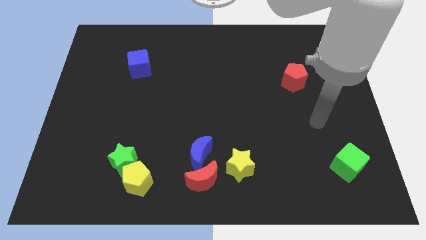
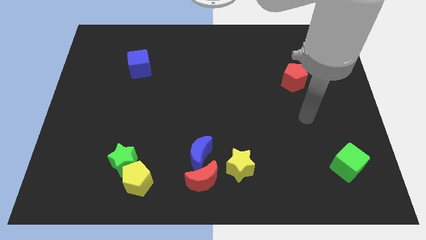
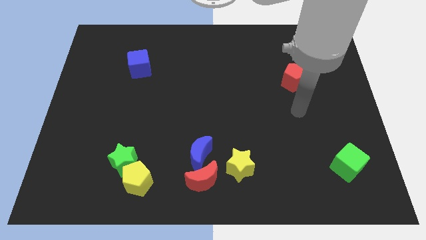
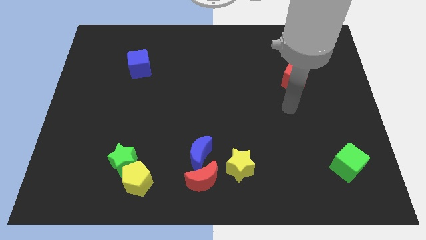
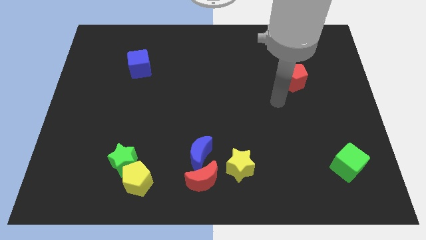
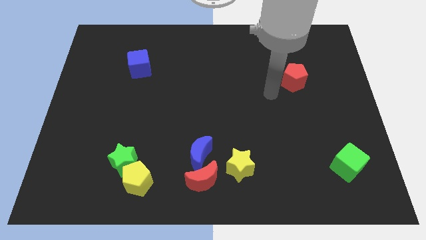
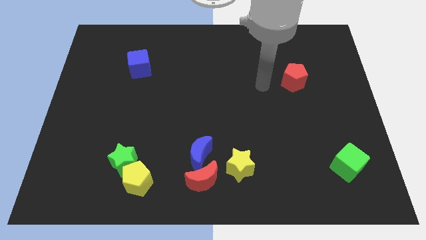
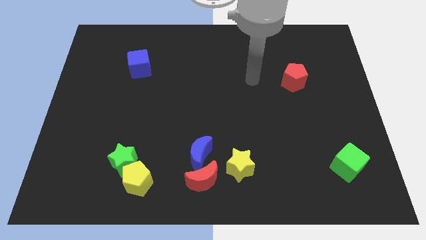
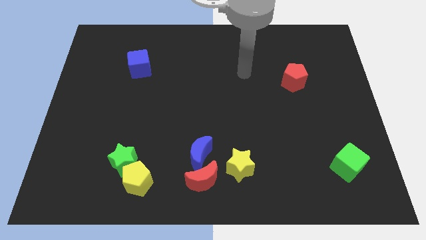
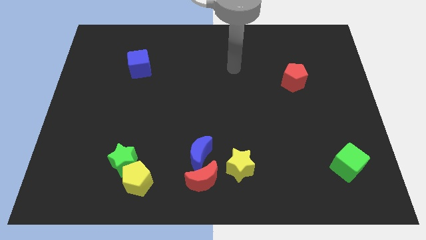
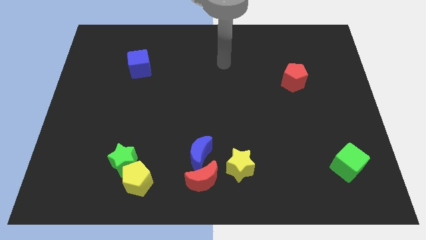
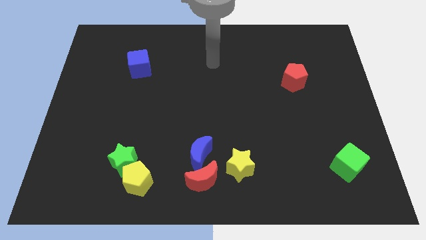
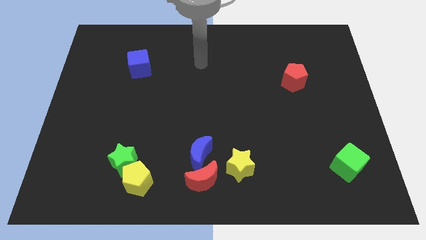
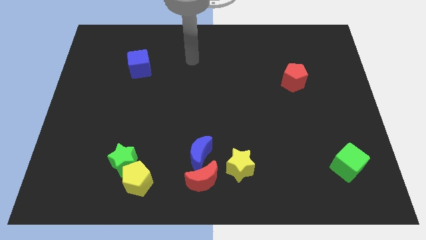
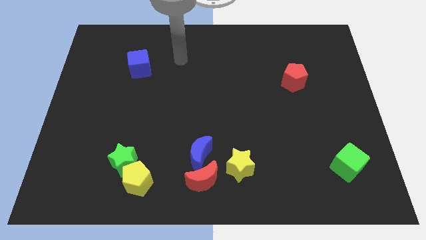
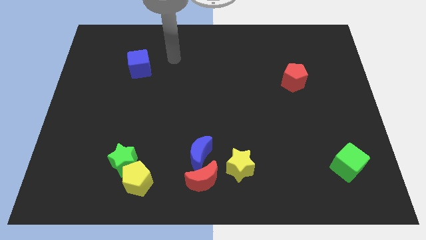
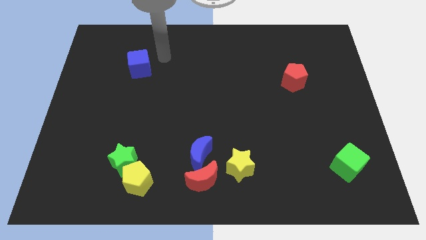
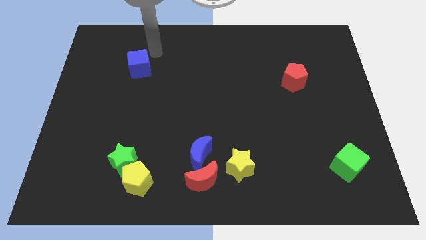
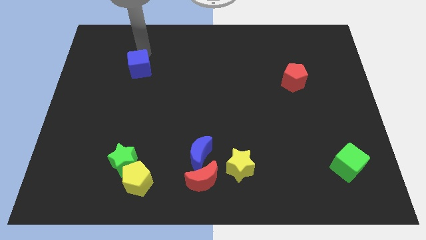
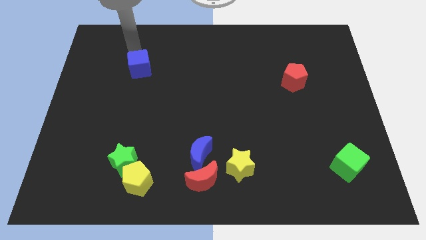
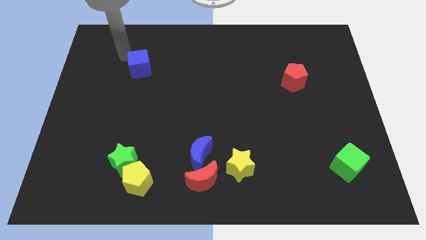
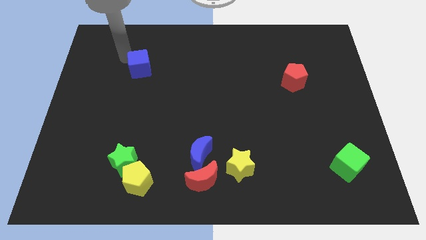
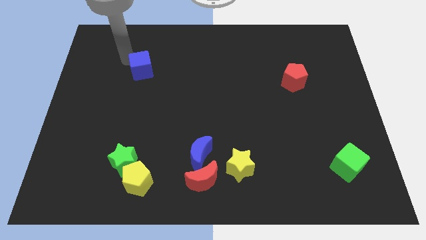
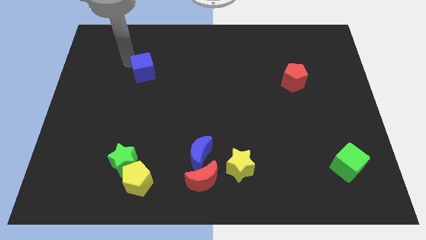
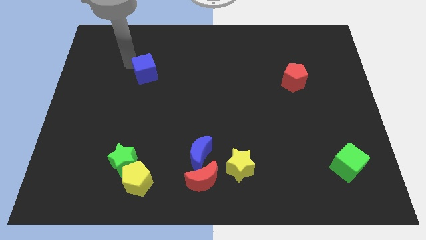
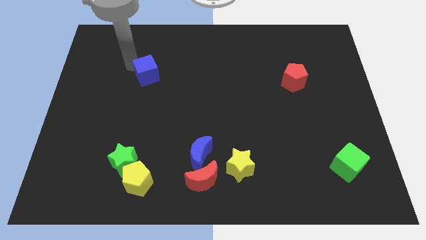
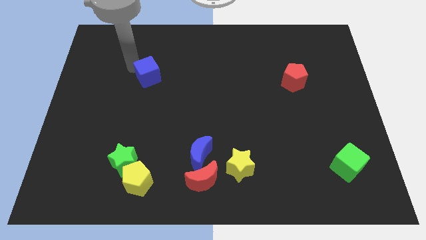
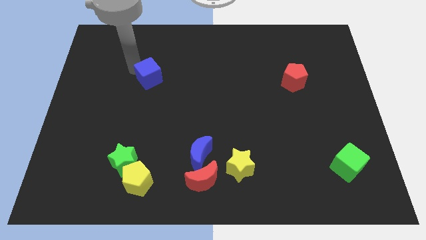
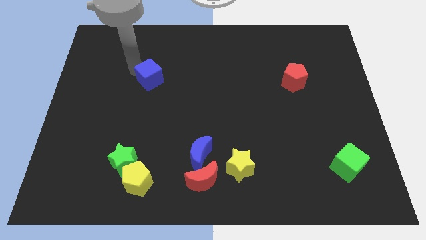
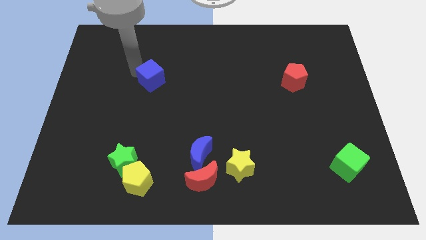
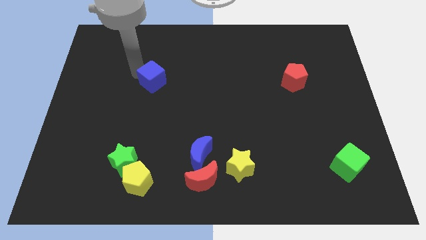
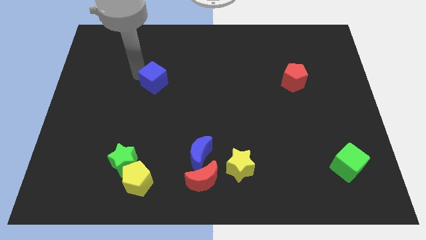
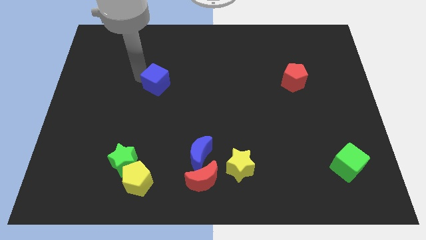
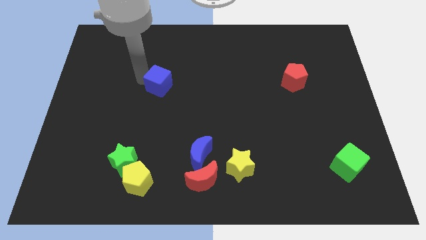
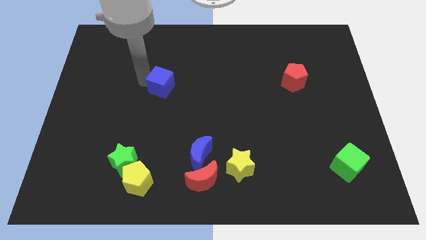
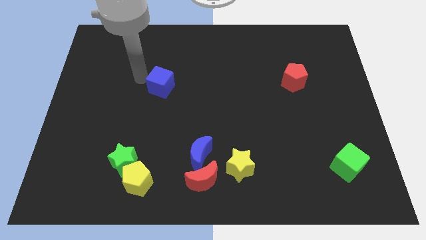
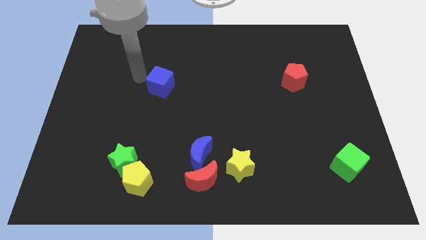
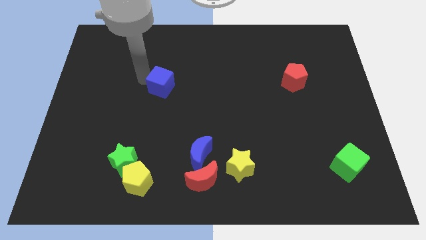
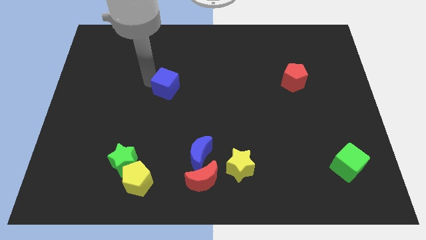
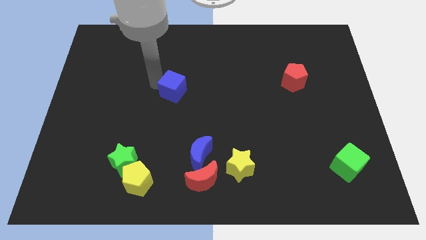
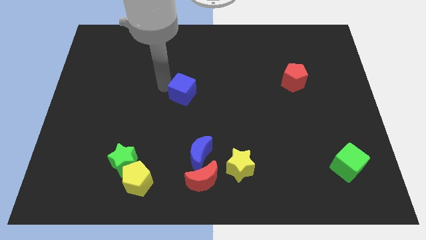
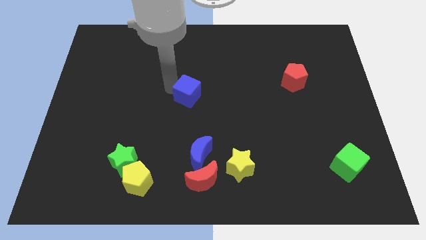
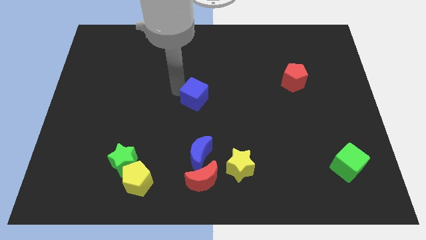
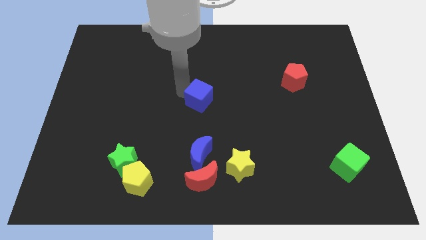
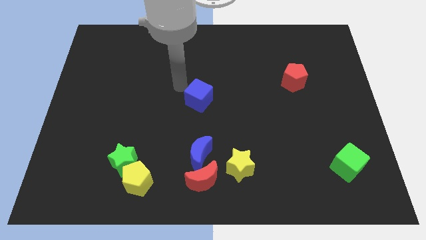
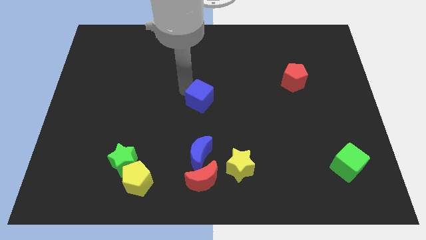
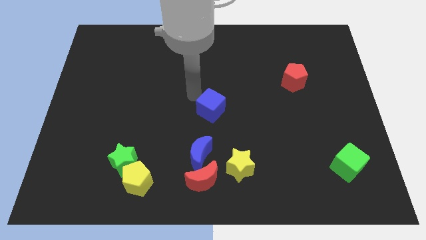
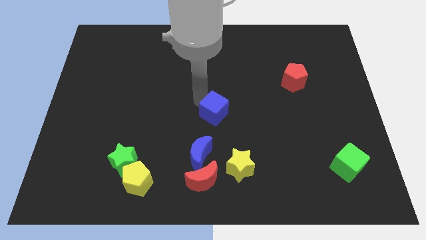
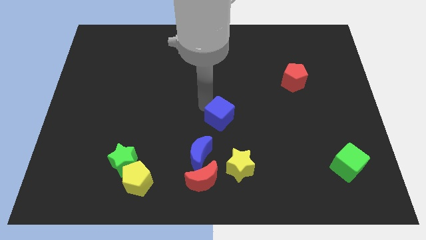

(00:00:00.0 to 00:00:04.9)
slide the blue cube to the top side of the yellow star

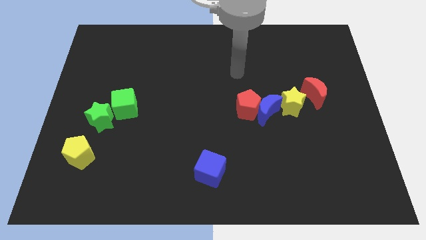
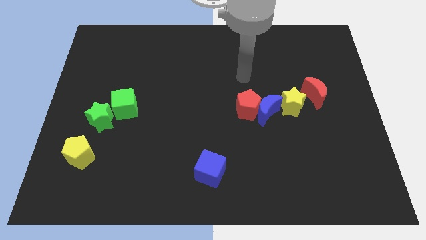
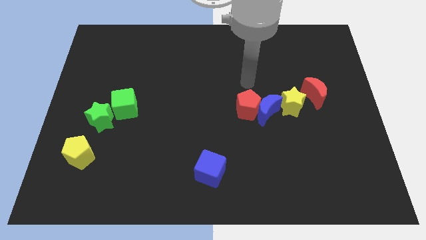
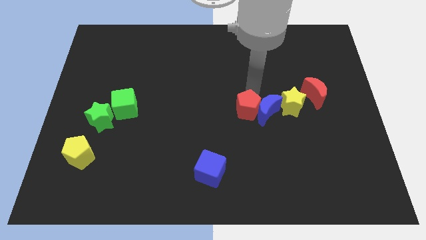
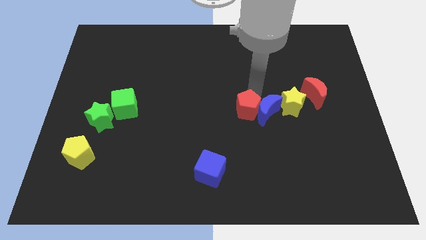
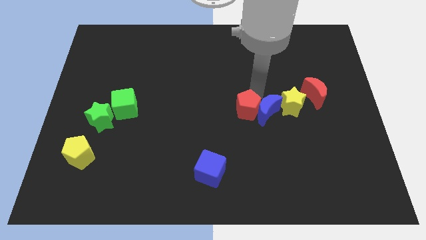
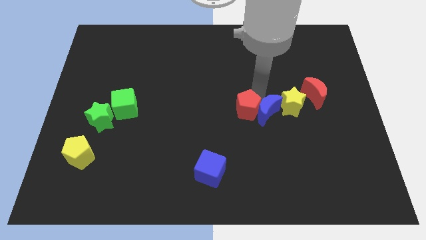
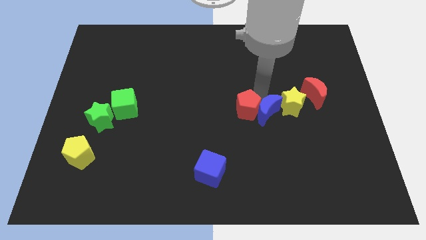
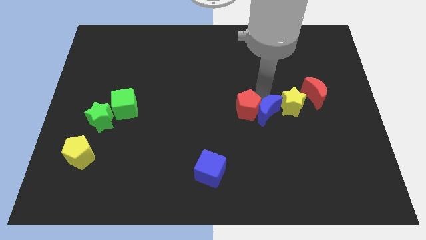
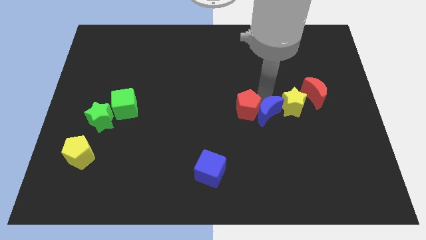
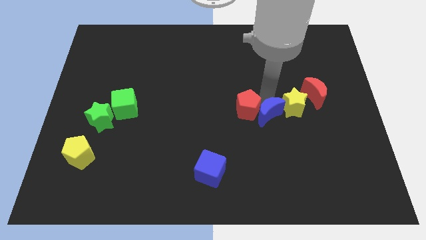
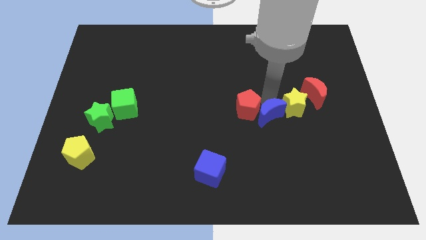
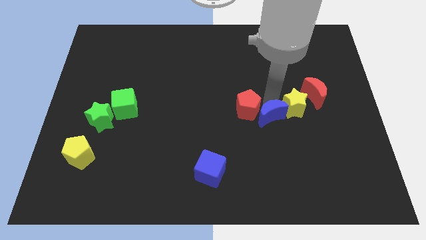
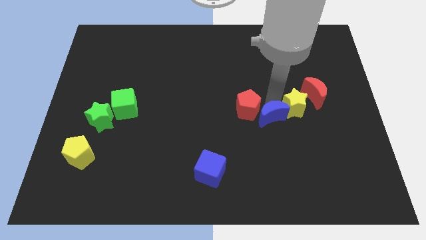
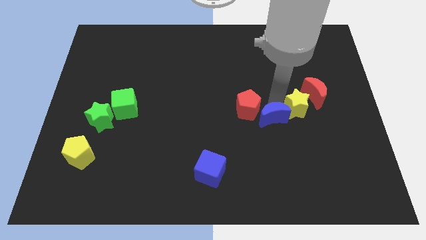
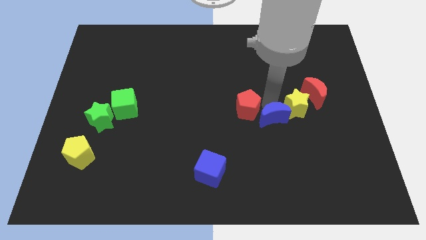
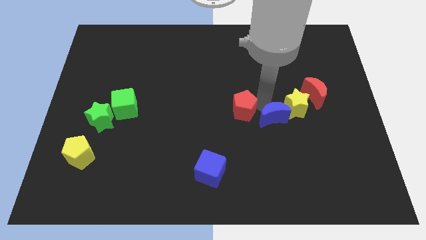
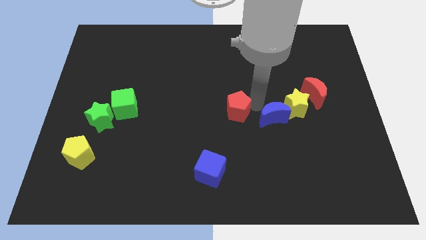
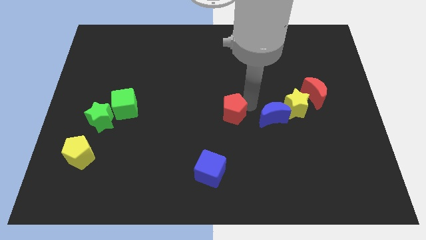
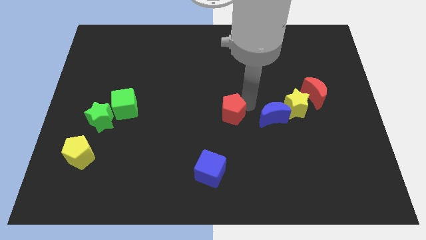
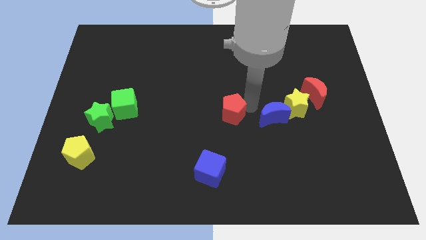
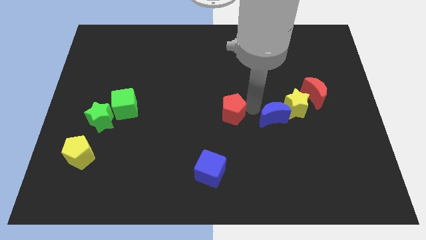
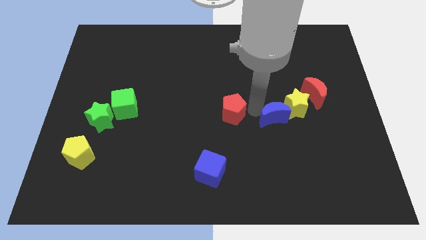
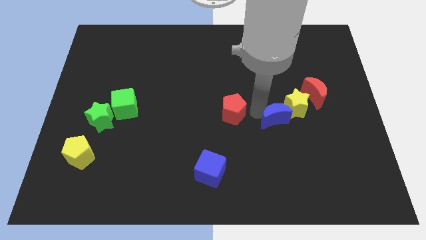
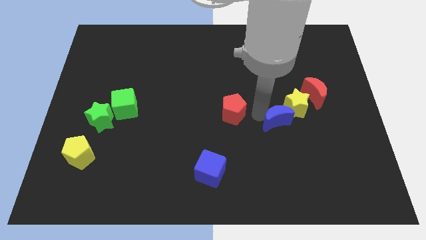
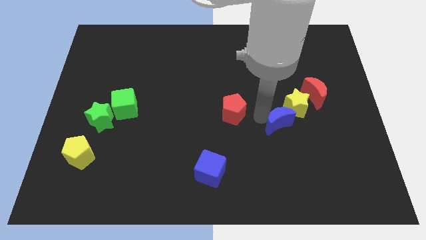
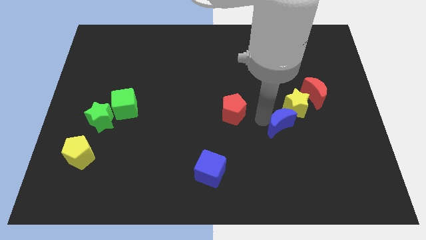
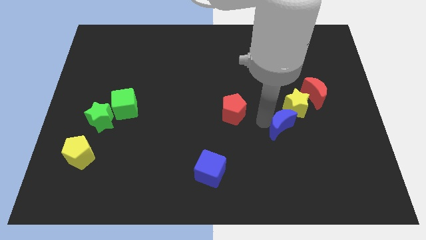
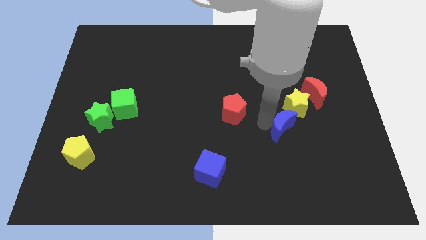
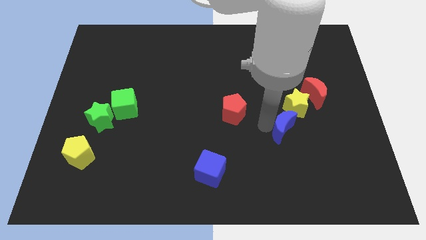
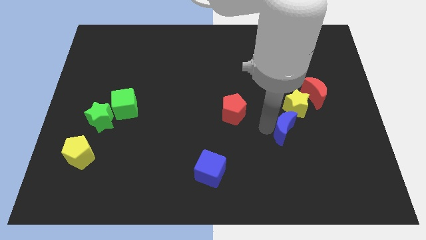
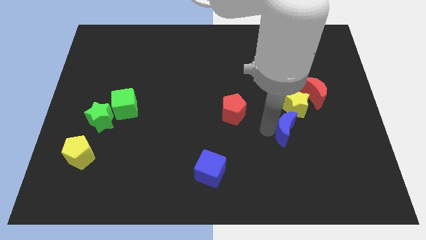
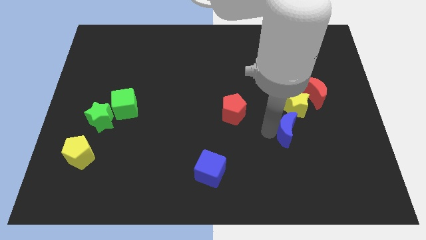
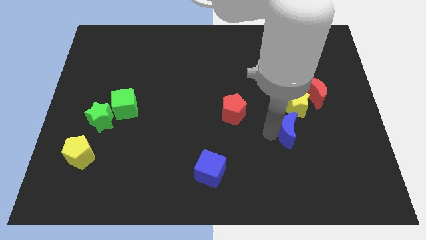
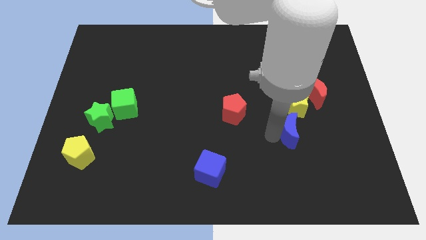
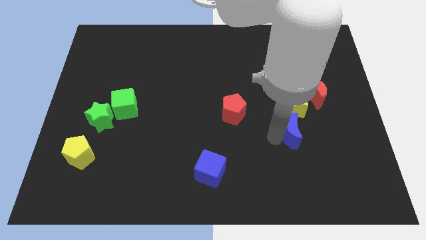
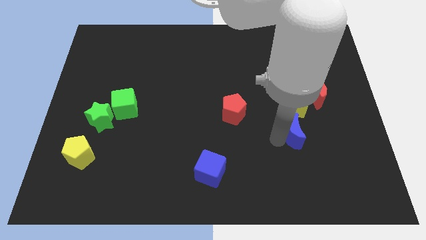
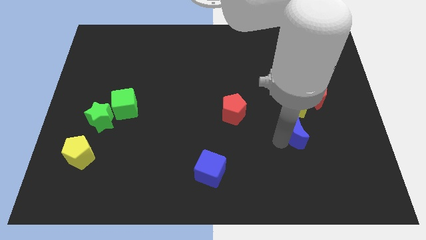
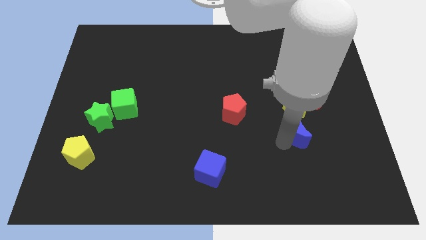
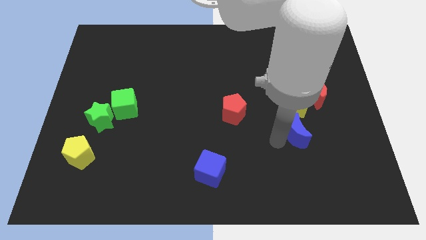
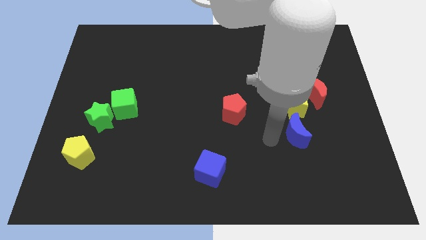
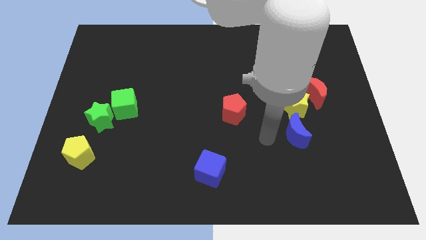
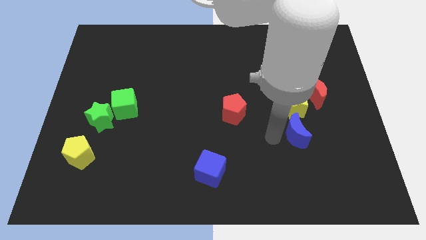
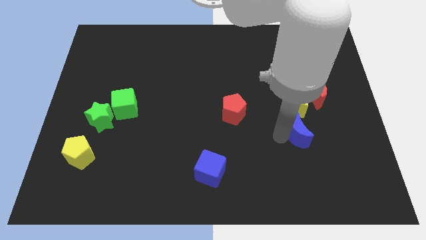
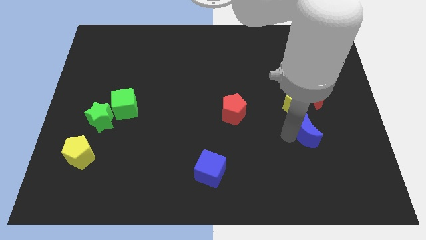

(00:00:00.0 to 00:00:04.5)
move the blue moon below the red moon
